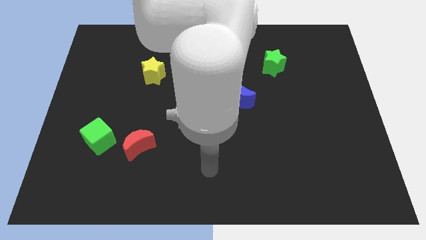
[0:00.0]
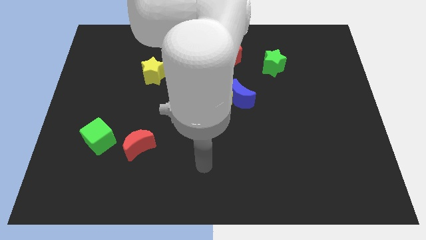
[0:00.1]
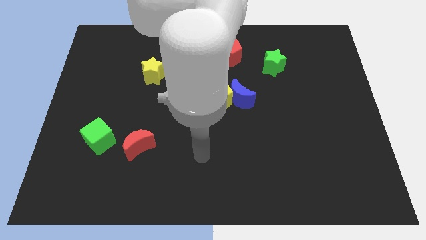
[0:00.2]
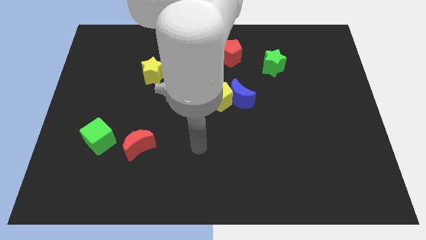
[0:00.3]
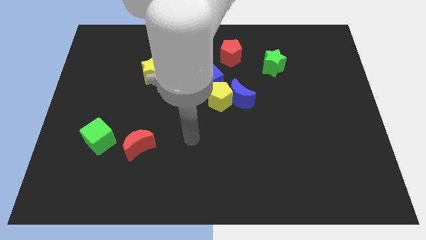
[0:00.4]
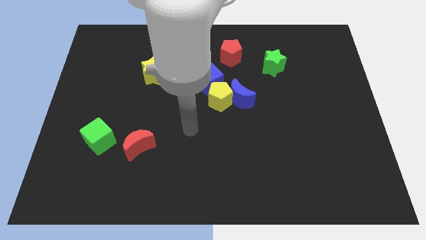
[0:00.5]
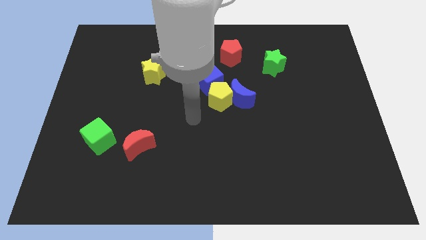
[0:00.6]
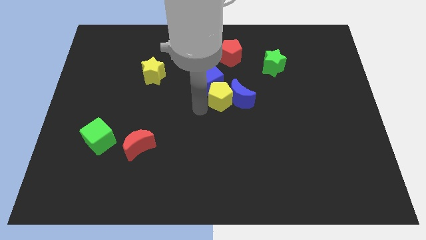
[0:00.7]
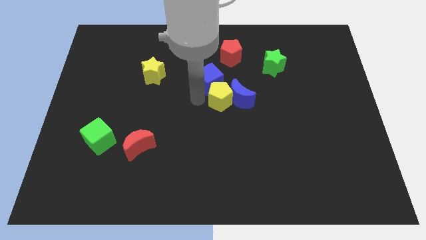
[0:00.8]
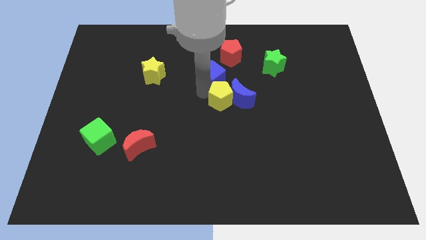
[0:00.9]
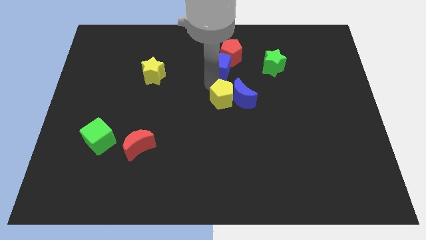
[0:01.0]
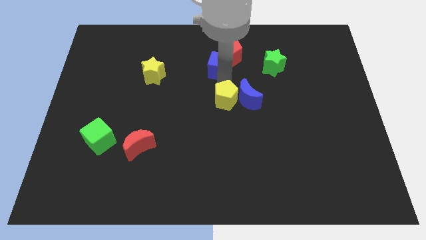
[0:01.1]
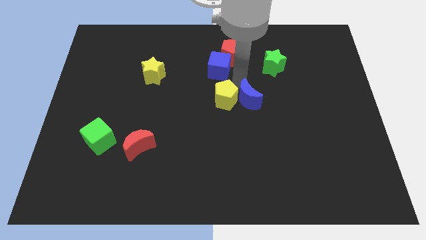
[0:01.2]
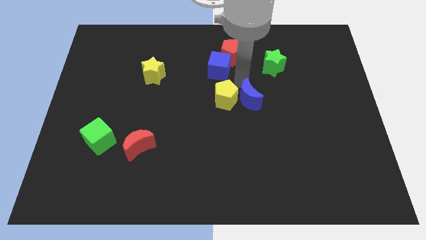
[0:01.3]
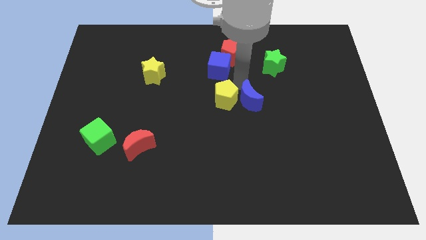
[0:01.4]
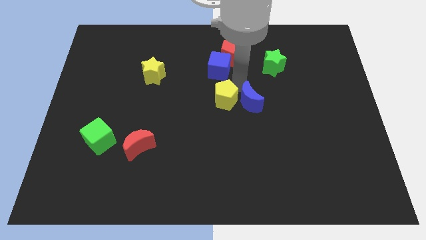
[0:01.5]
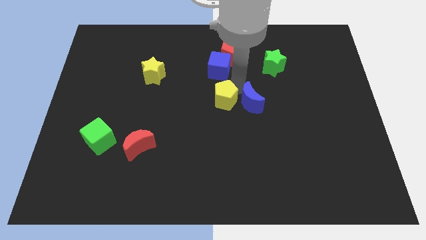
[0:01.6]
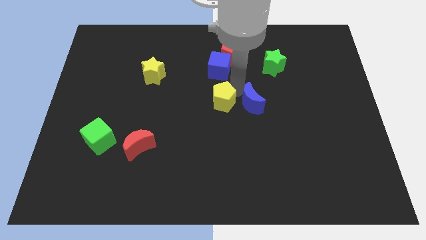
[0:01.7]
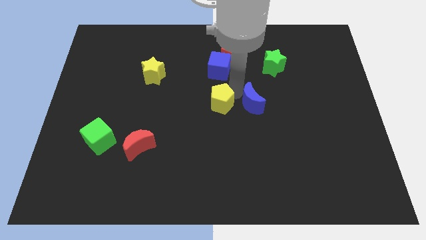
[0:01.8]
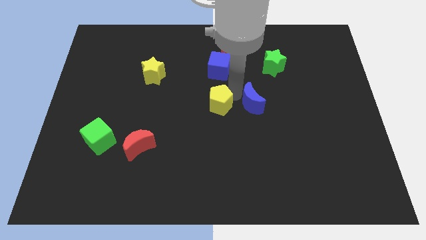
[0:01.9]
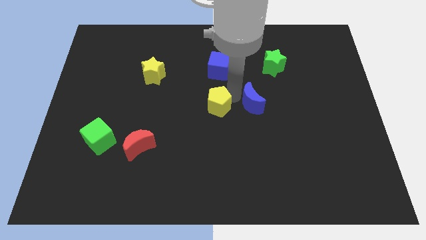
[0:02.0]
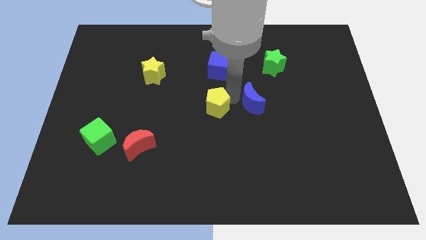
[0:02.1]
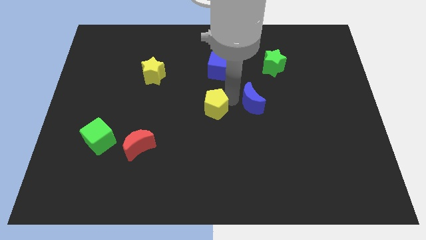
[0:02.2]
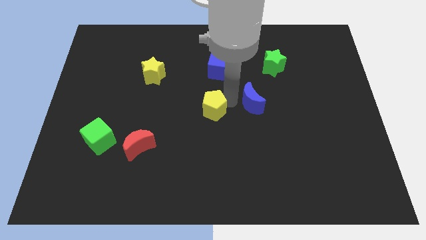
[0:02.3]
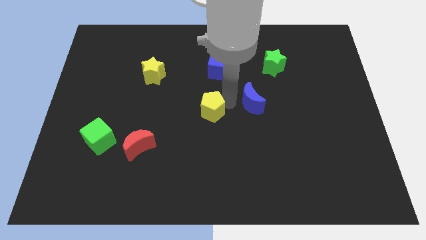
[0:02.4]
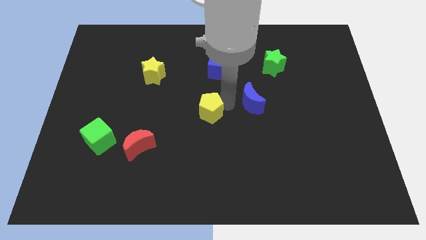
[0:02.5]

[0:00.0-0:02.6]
move the yellow pentagon away from the blue moon and blue cube

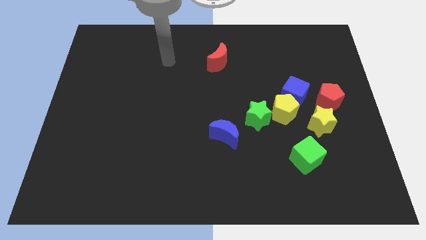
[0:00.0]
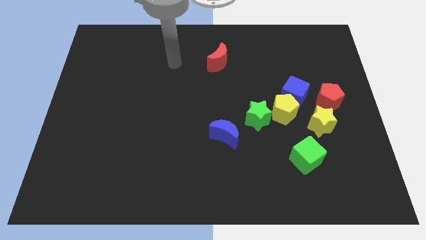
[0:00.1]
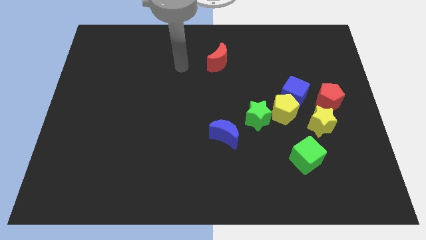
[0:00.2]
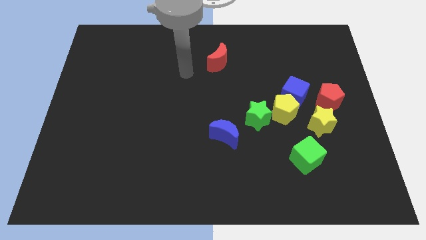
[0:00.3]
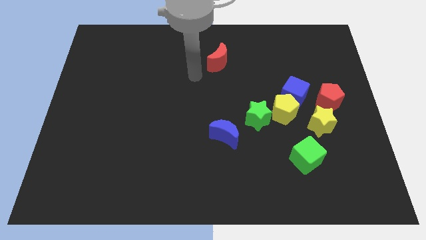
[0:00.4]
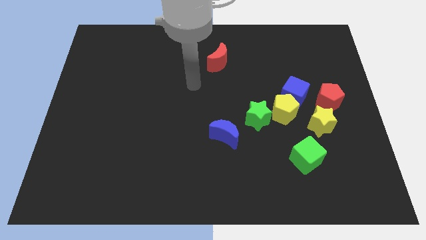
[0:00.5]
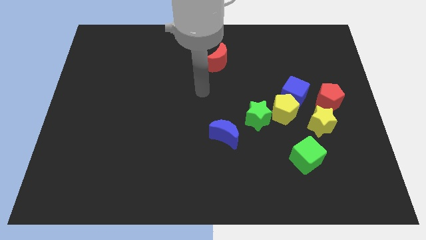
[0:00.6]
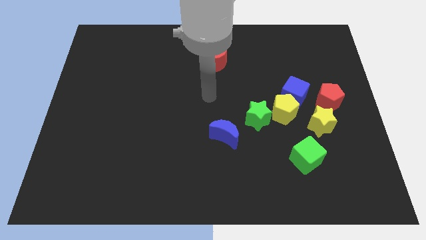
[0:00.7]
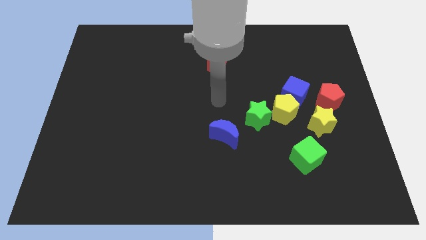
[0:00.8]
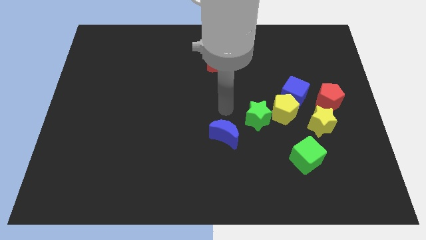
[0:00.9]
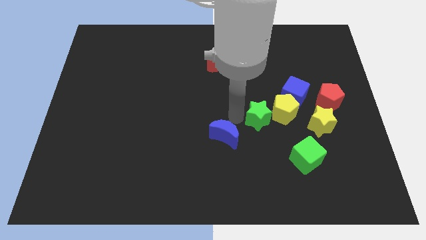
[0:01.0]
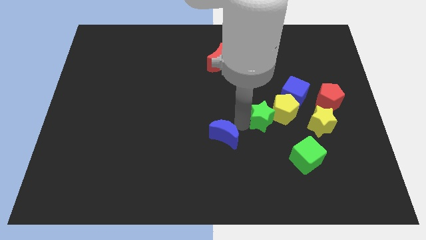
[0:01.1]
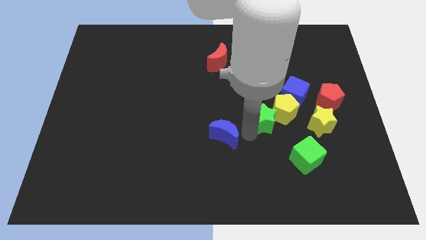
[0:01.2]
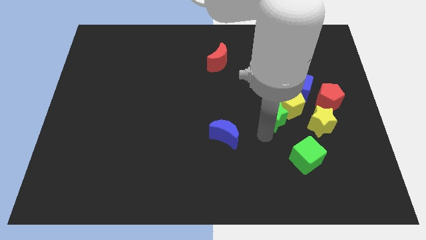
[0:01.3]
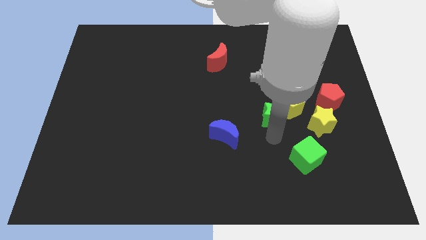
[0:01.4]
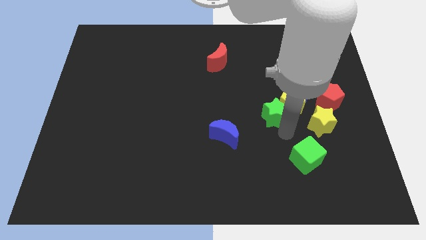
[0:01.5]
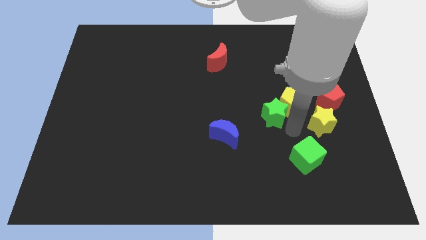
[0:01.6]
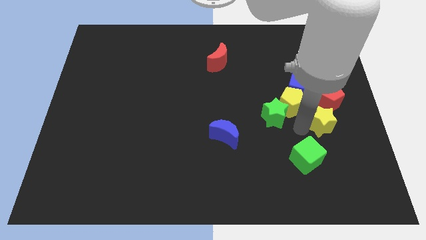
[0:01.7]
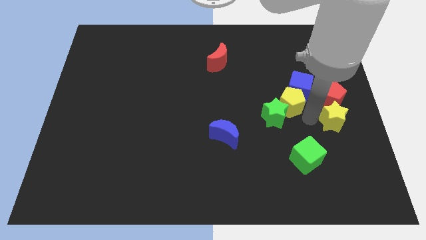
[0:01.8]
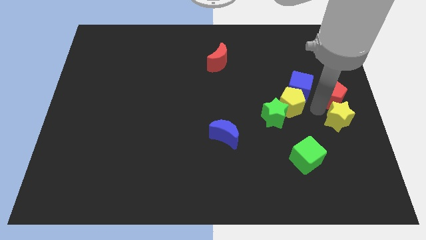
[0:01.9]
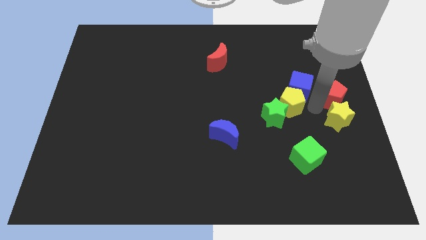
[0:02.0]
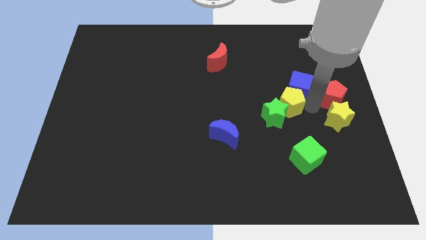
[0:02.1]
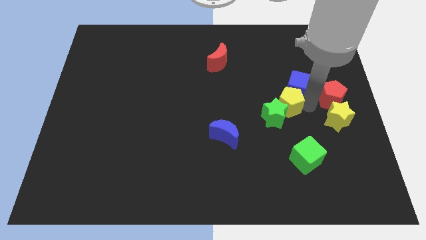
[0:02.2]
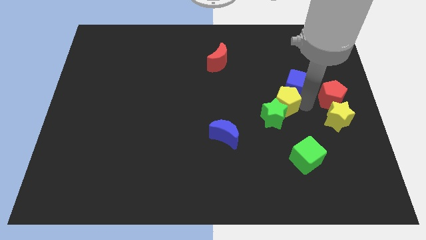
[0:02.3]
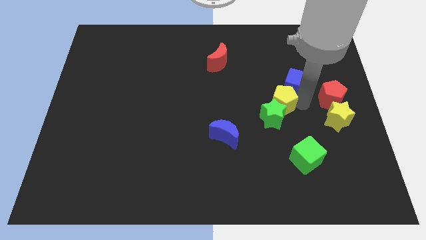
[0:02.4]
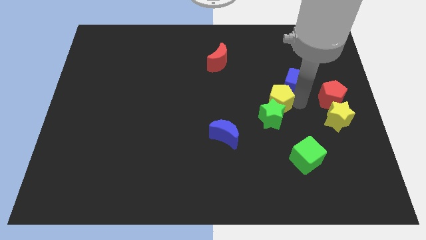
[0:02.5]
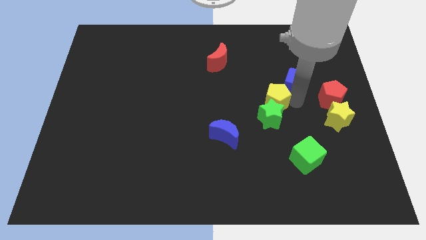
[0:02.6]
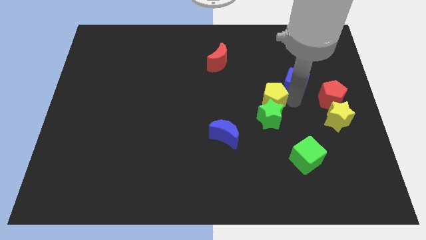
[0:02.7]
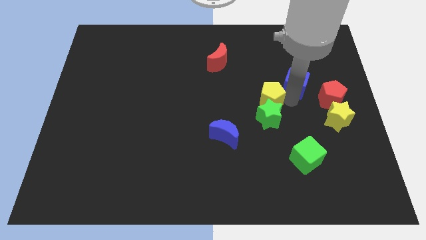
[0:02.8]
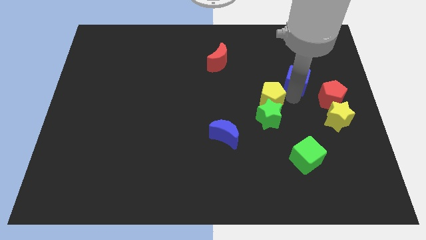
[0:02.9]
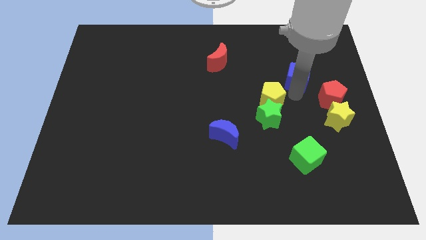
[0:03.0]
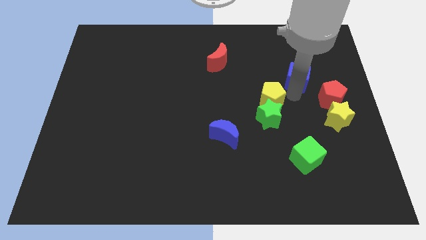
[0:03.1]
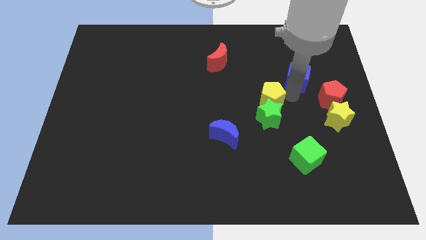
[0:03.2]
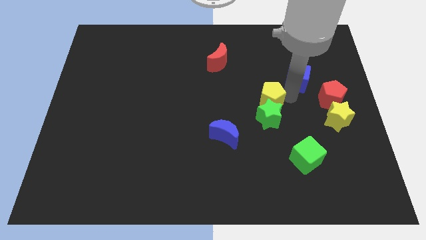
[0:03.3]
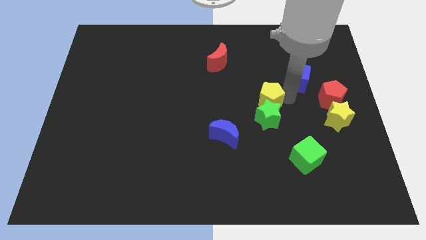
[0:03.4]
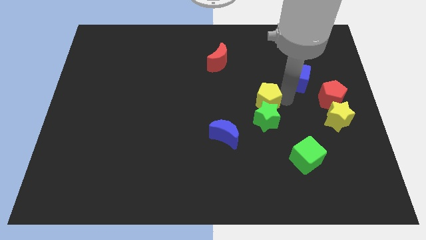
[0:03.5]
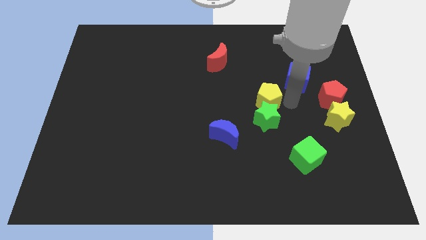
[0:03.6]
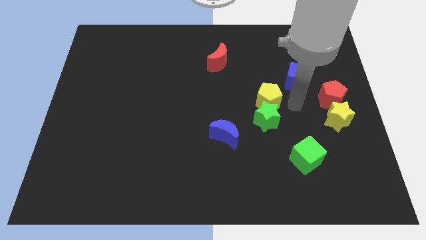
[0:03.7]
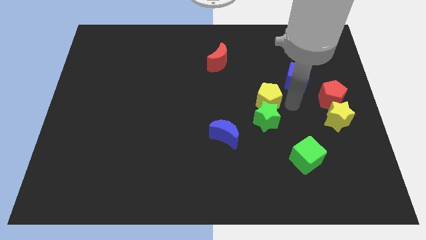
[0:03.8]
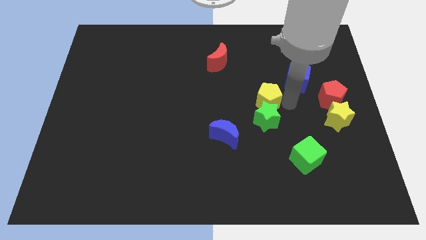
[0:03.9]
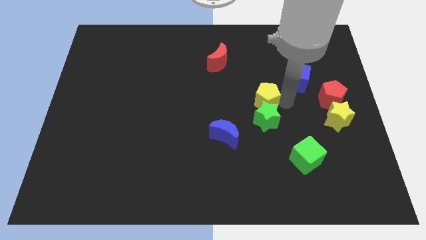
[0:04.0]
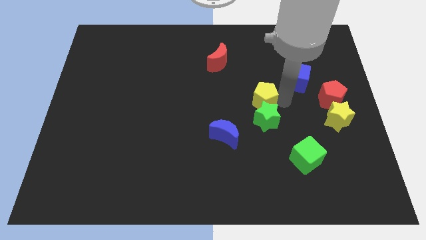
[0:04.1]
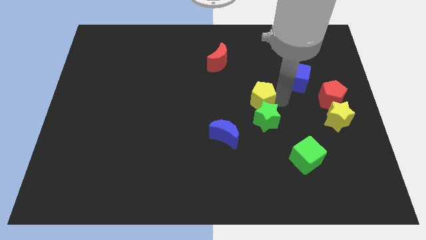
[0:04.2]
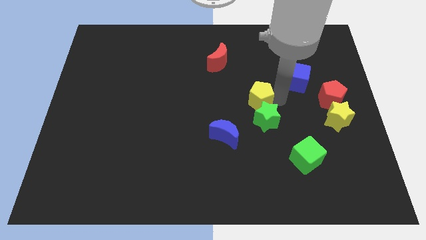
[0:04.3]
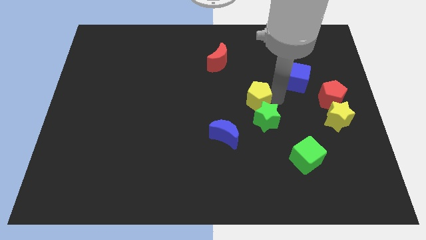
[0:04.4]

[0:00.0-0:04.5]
separate the yellow pentagon from the clump

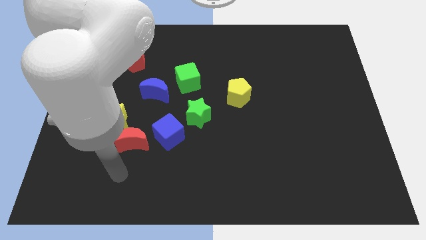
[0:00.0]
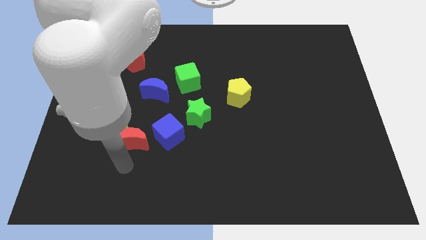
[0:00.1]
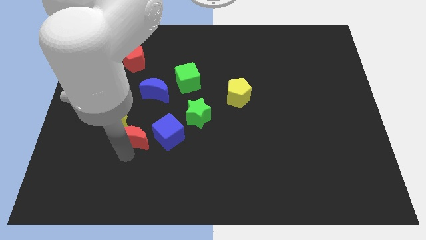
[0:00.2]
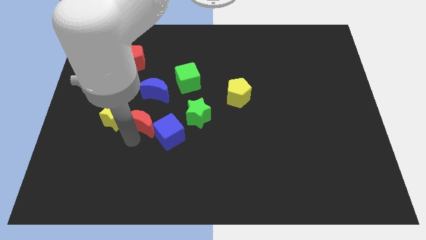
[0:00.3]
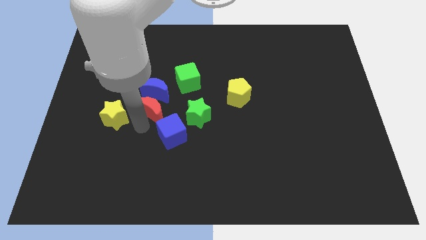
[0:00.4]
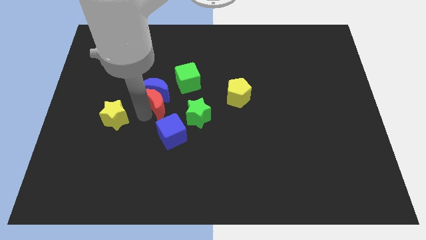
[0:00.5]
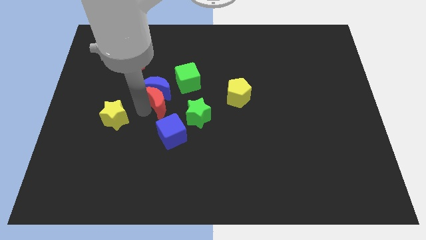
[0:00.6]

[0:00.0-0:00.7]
move the yellow star away from the red moon

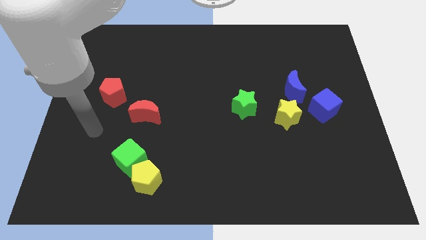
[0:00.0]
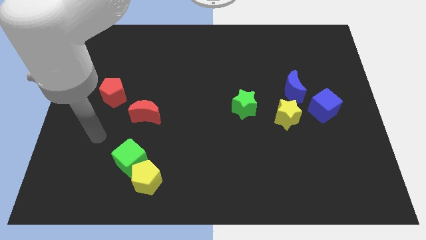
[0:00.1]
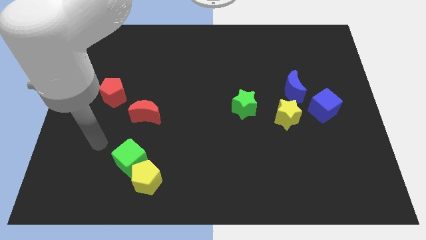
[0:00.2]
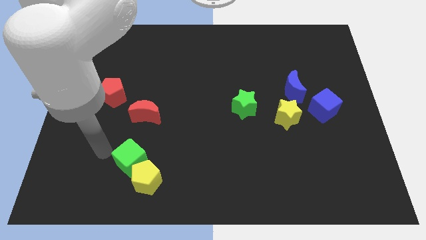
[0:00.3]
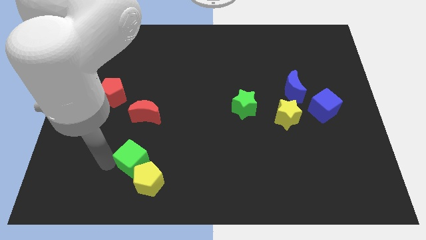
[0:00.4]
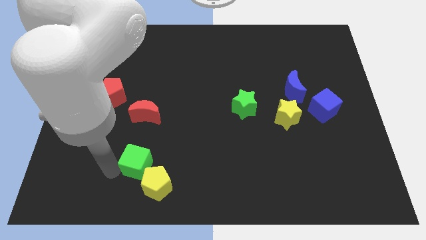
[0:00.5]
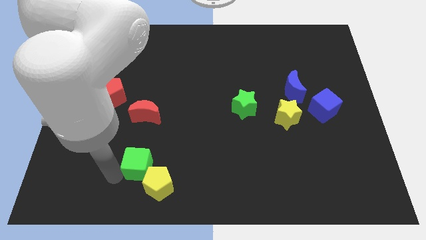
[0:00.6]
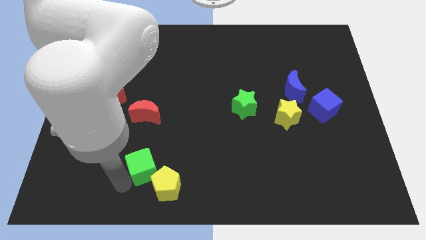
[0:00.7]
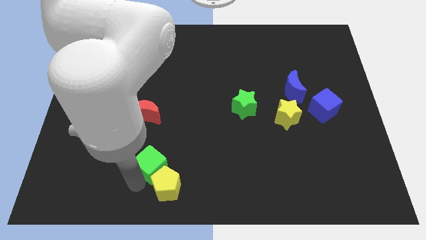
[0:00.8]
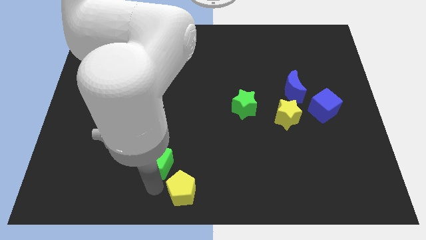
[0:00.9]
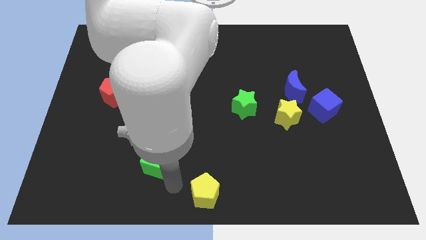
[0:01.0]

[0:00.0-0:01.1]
move the green cube away from the yellow pentagon

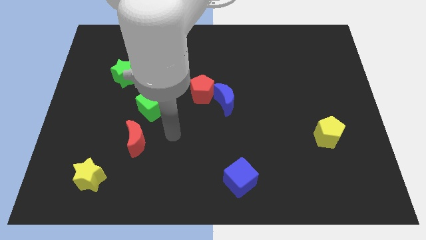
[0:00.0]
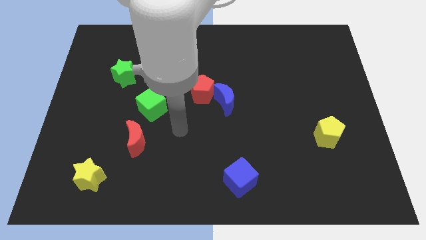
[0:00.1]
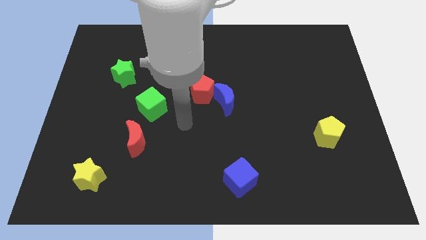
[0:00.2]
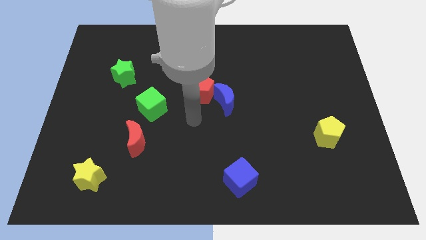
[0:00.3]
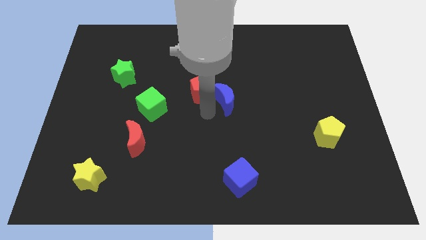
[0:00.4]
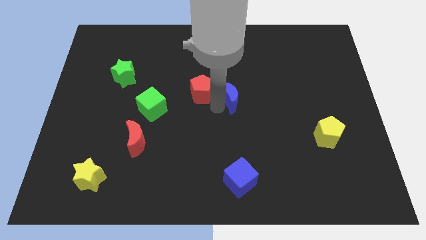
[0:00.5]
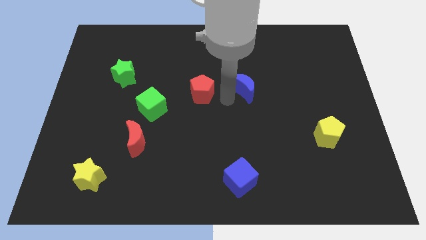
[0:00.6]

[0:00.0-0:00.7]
move the red pentagon away from the blue moon
